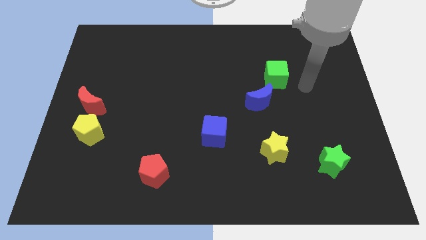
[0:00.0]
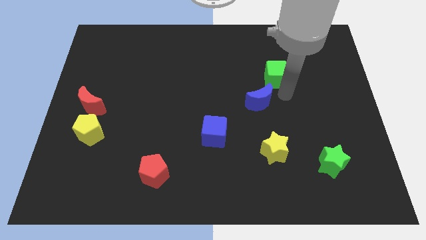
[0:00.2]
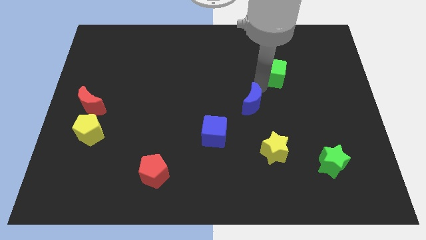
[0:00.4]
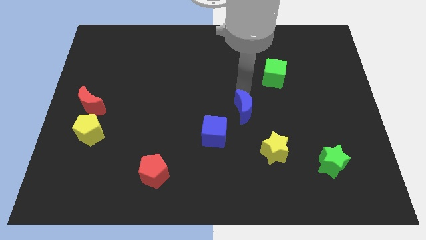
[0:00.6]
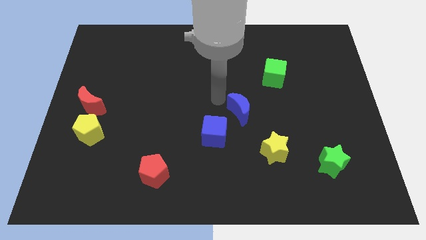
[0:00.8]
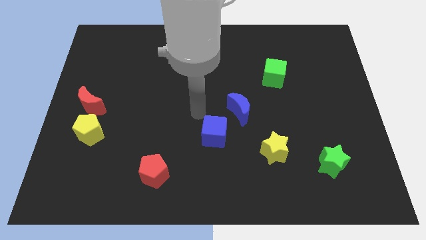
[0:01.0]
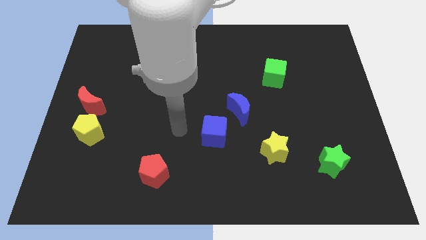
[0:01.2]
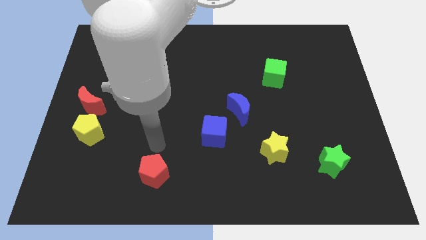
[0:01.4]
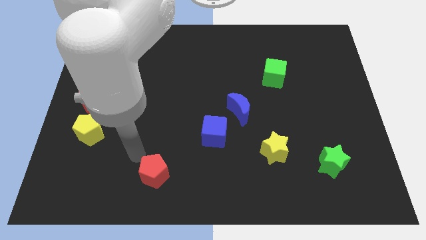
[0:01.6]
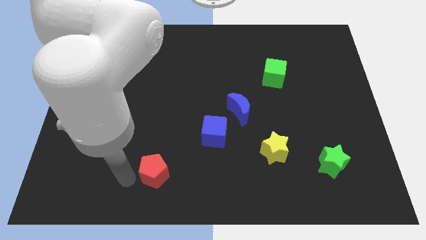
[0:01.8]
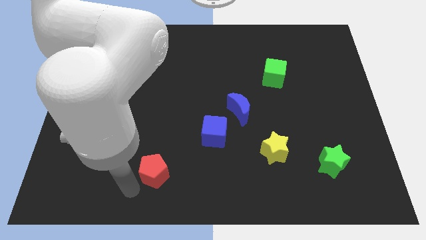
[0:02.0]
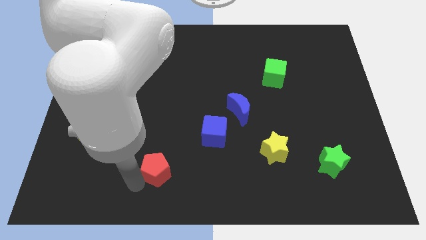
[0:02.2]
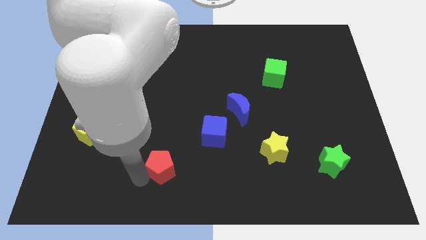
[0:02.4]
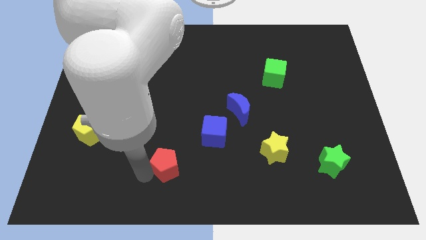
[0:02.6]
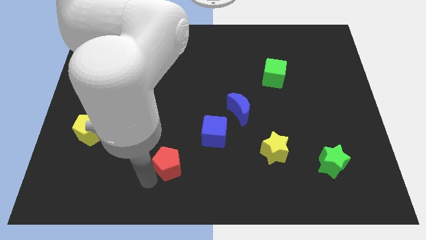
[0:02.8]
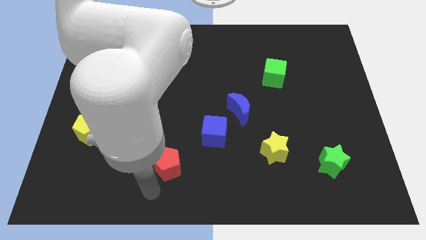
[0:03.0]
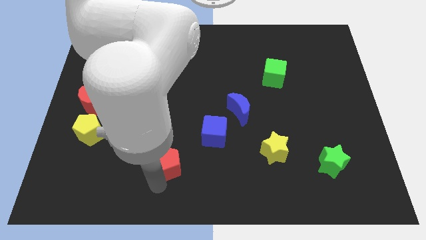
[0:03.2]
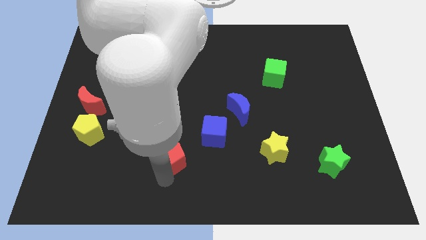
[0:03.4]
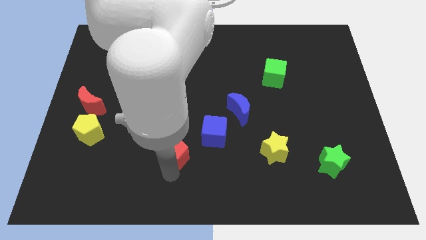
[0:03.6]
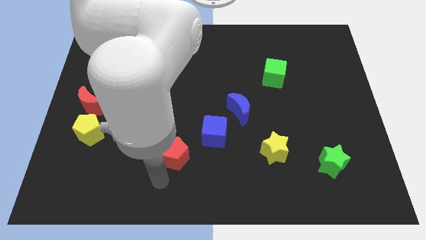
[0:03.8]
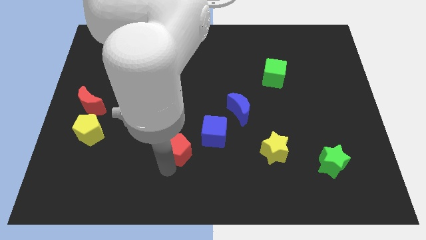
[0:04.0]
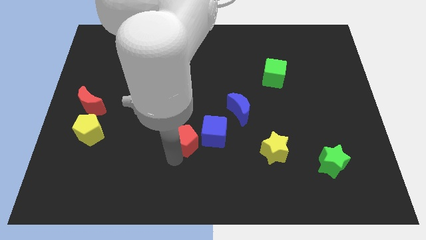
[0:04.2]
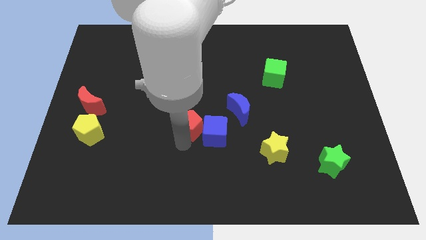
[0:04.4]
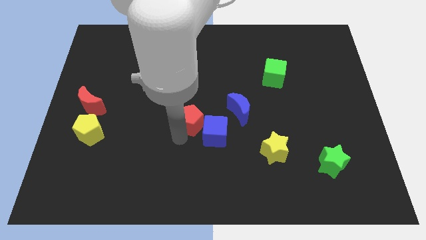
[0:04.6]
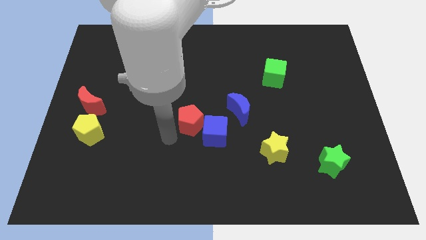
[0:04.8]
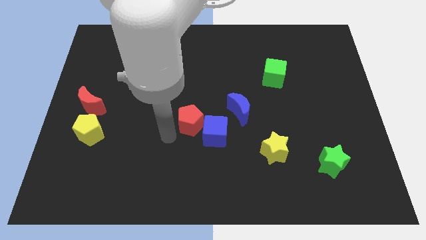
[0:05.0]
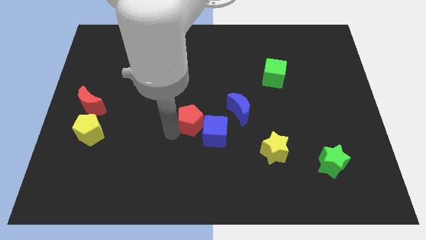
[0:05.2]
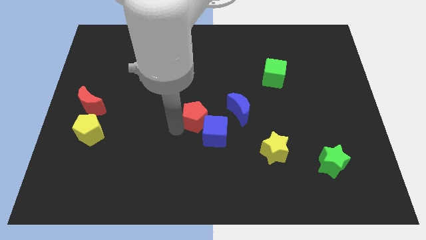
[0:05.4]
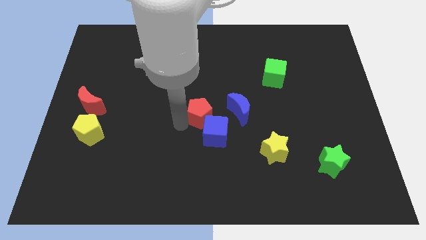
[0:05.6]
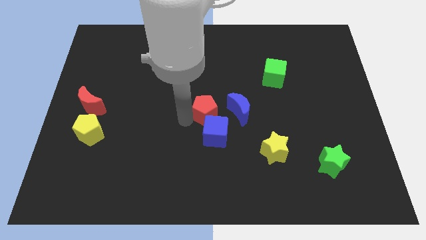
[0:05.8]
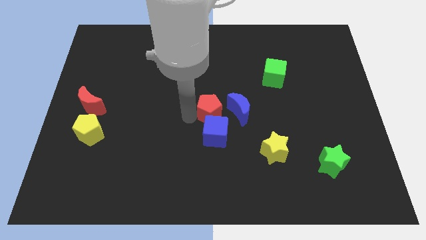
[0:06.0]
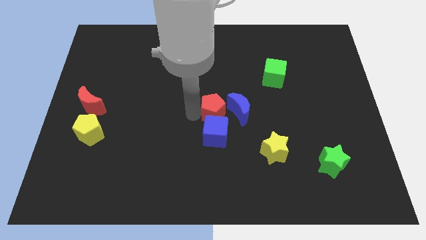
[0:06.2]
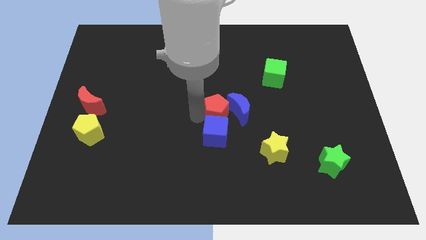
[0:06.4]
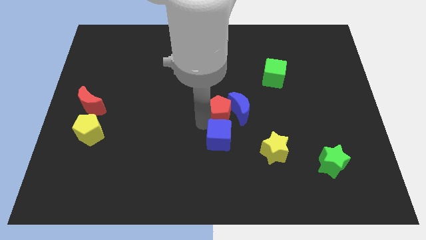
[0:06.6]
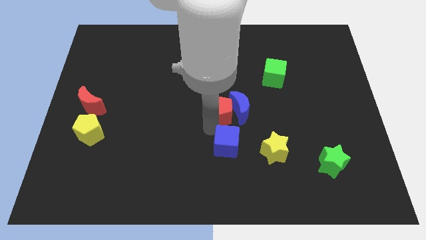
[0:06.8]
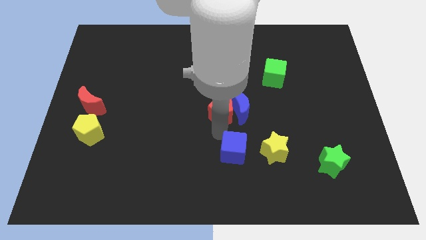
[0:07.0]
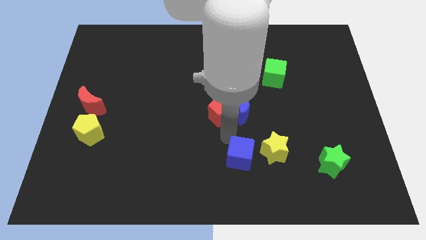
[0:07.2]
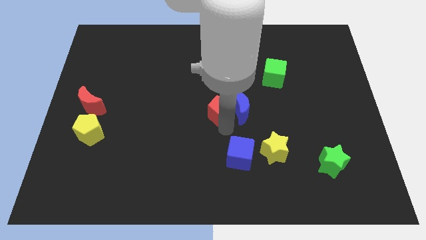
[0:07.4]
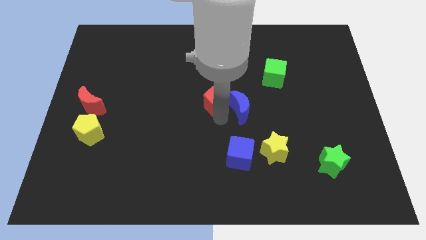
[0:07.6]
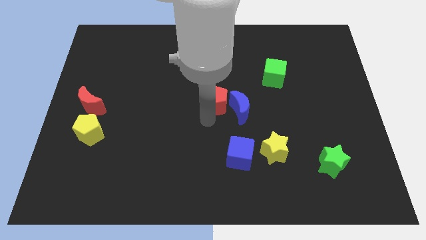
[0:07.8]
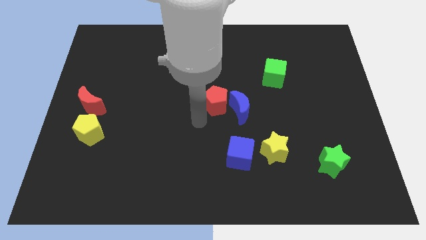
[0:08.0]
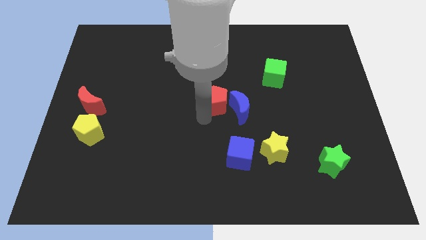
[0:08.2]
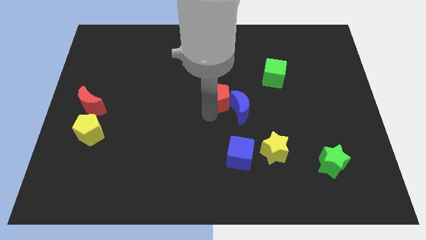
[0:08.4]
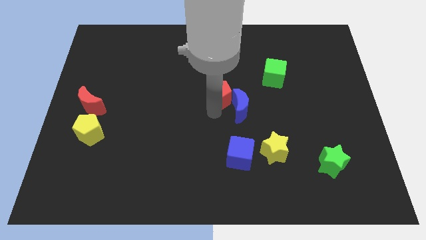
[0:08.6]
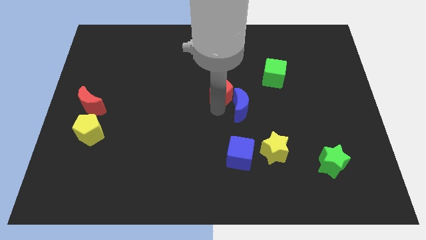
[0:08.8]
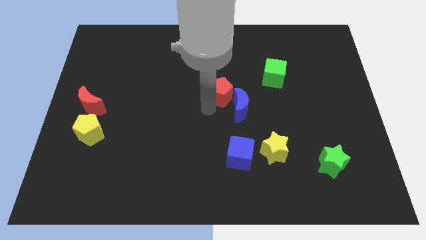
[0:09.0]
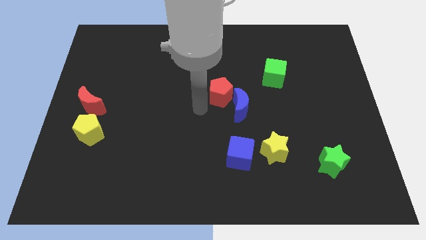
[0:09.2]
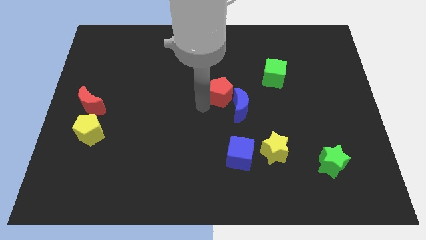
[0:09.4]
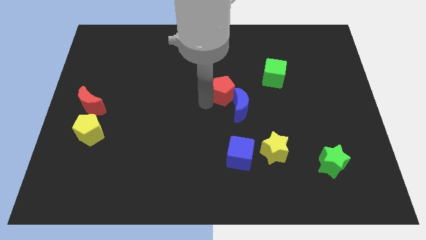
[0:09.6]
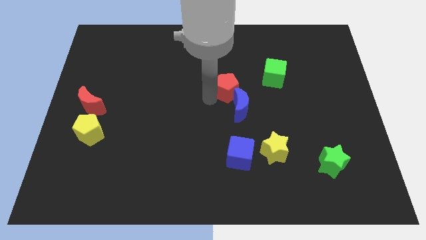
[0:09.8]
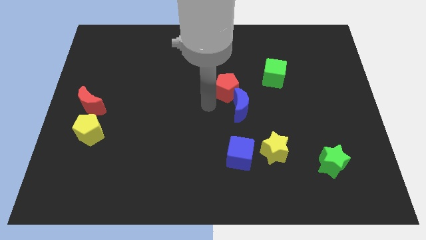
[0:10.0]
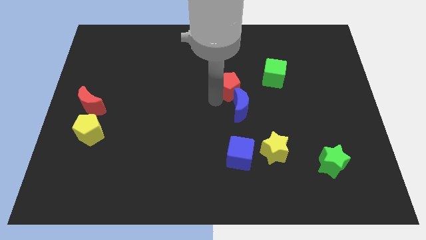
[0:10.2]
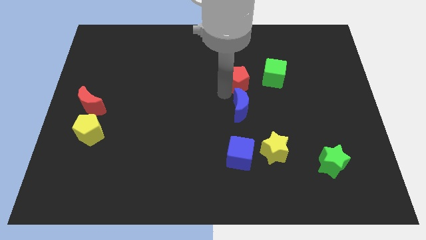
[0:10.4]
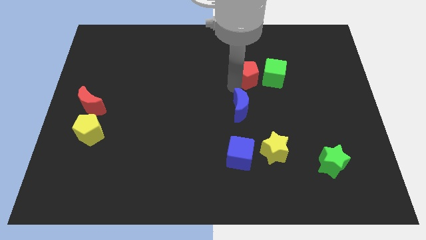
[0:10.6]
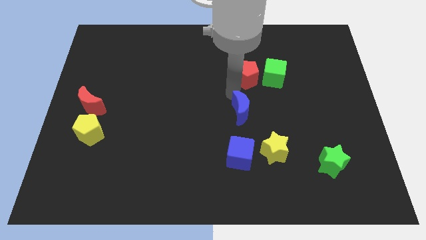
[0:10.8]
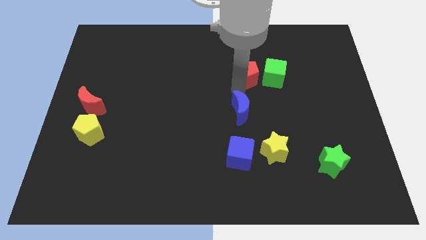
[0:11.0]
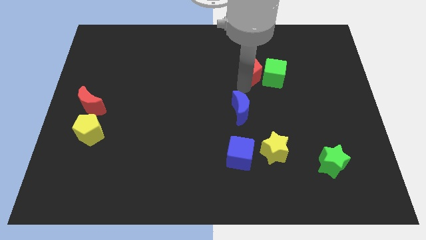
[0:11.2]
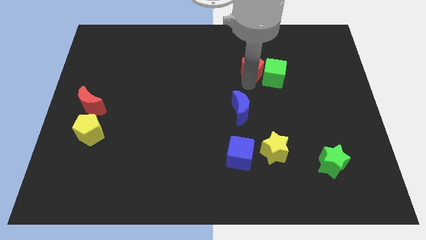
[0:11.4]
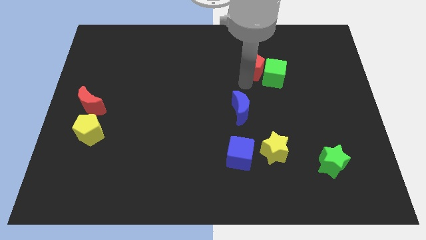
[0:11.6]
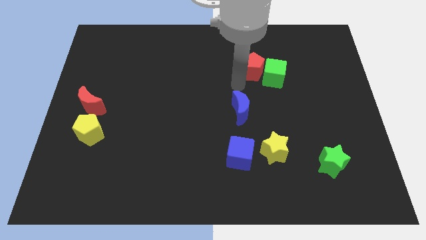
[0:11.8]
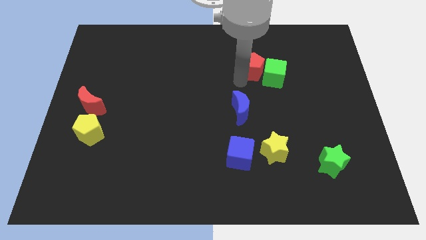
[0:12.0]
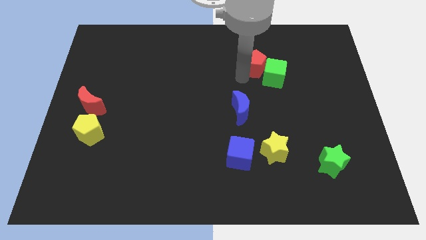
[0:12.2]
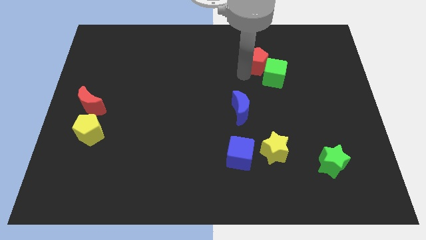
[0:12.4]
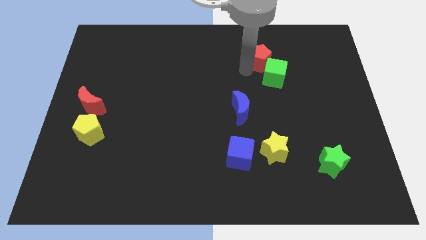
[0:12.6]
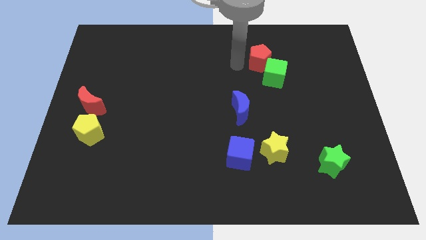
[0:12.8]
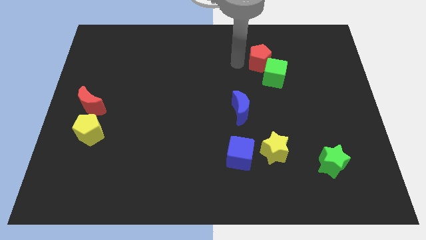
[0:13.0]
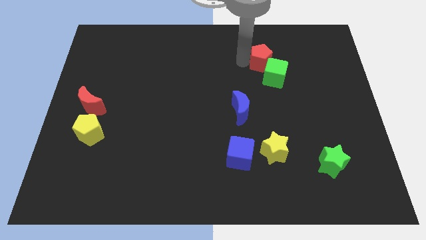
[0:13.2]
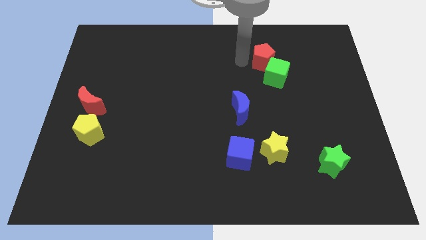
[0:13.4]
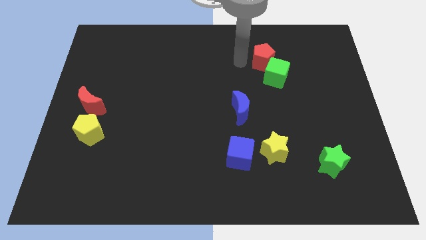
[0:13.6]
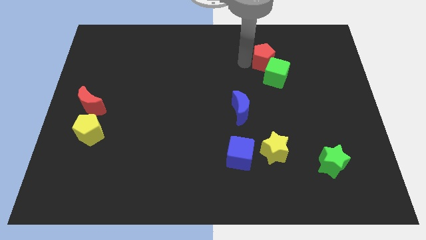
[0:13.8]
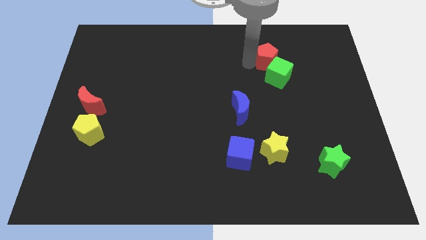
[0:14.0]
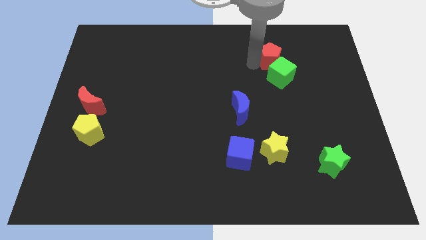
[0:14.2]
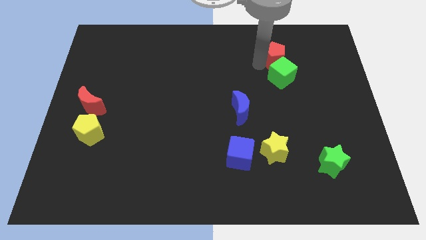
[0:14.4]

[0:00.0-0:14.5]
push the red pentagon to the top right of the green cube
